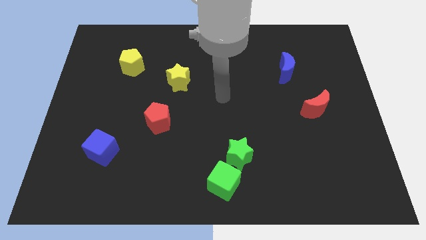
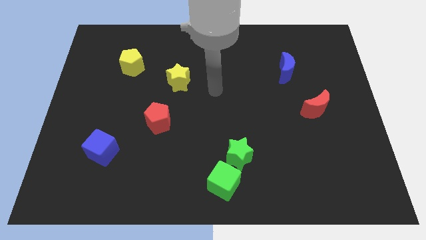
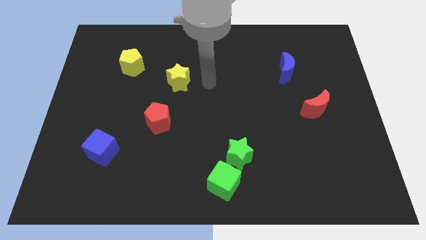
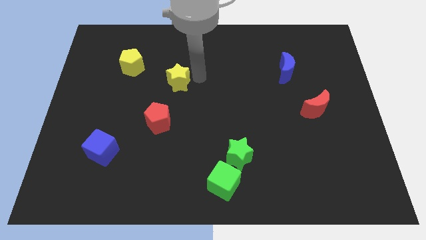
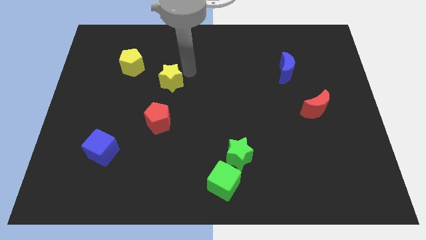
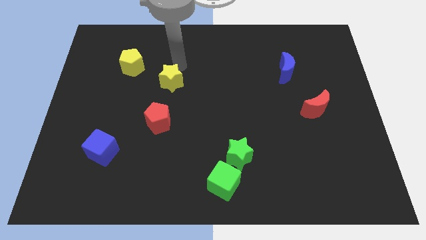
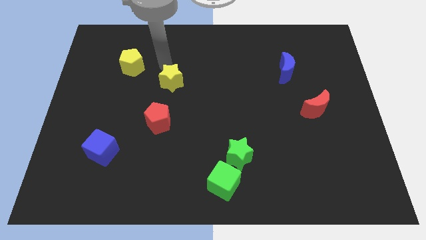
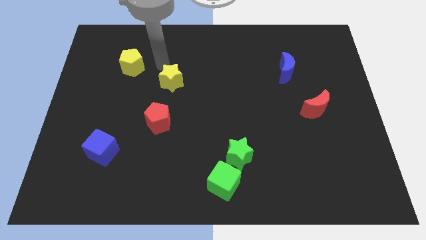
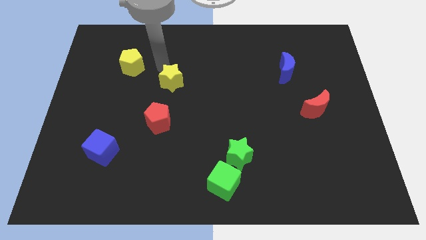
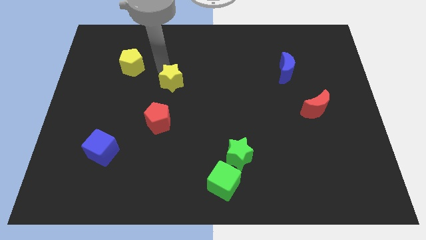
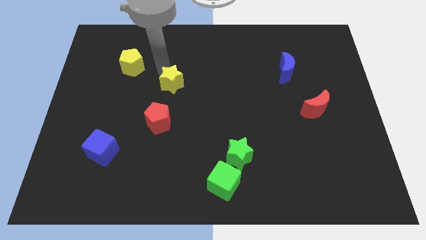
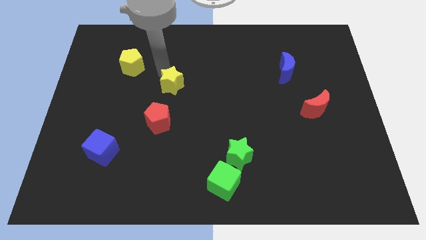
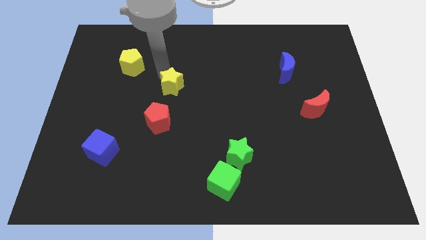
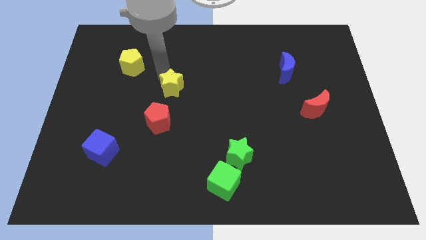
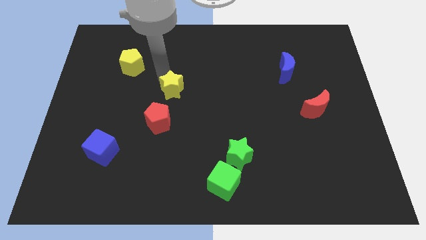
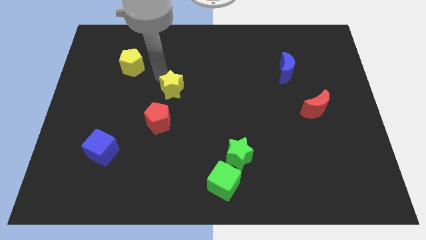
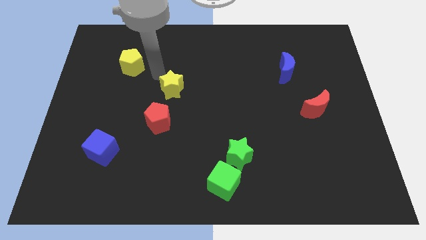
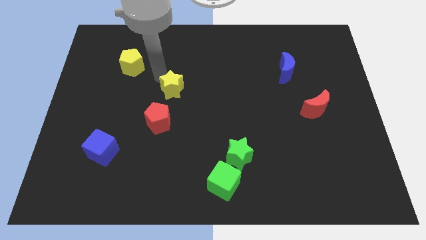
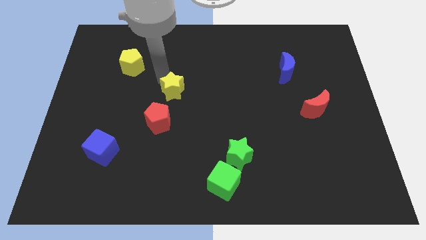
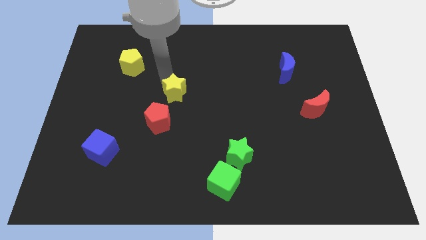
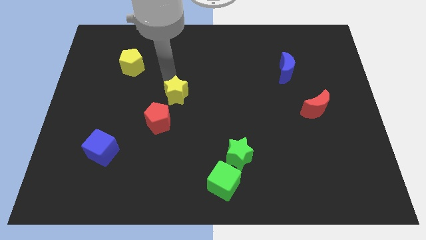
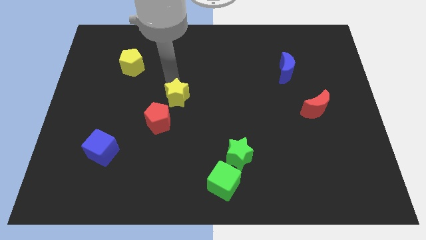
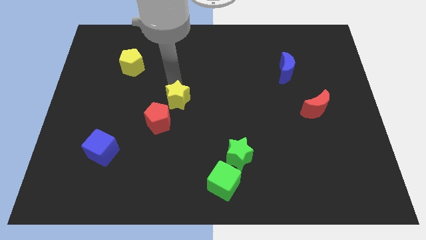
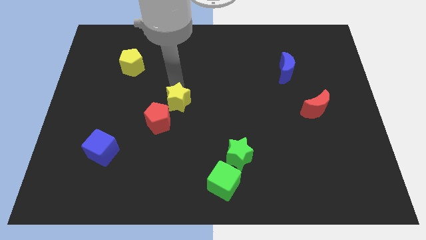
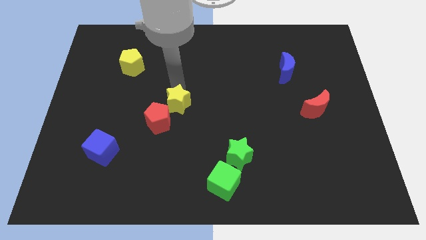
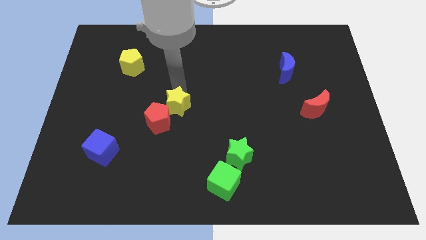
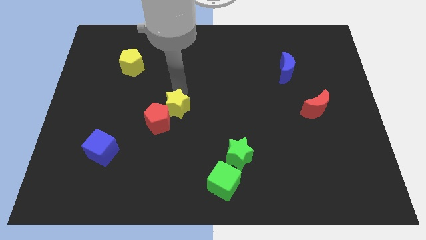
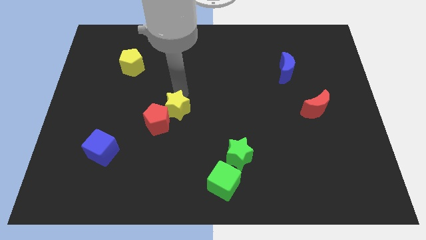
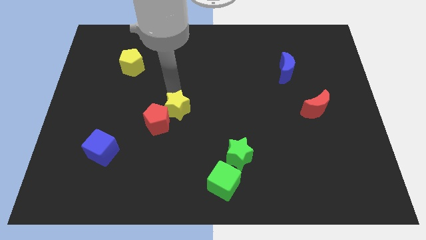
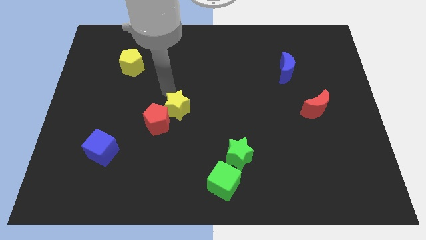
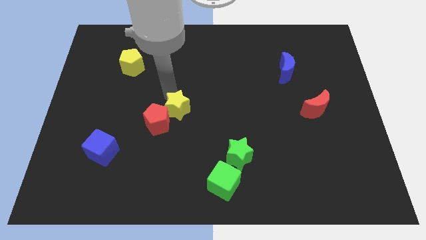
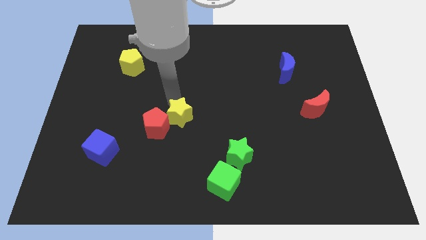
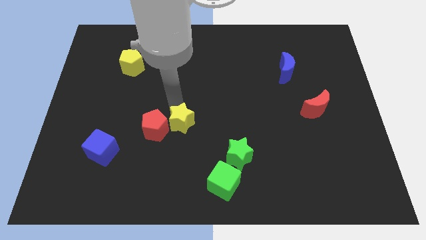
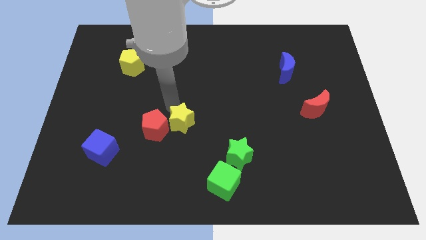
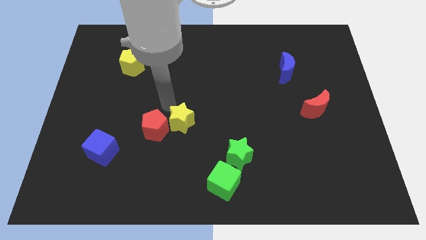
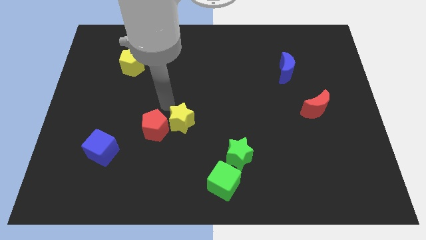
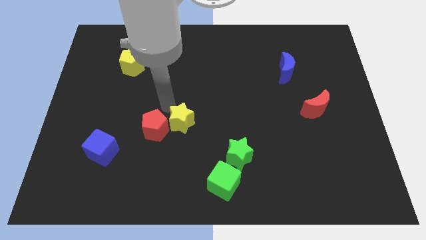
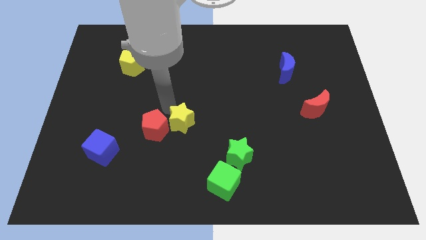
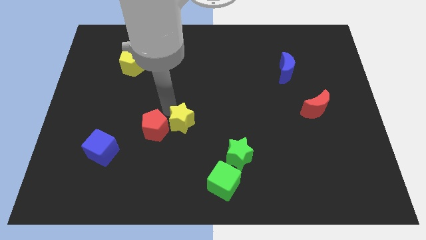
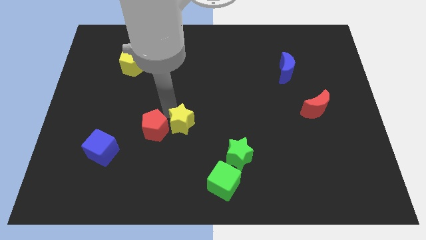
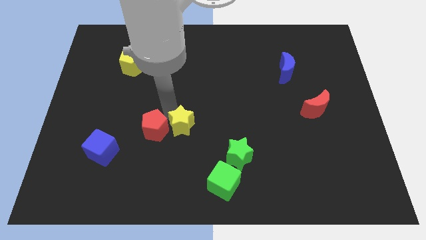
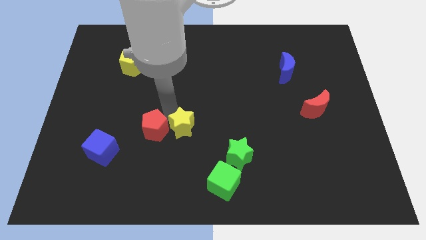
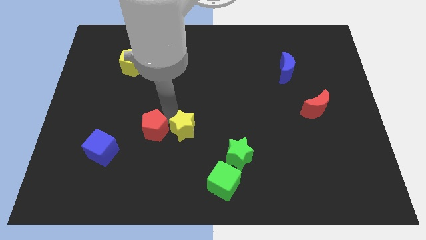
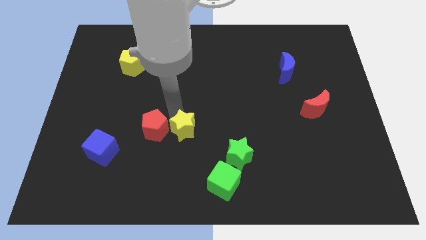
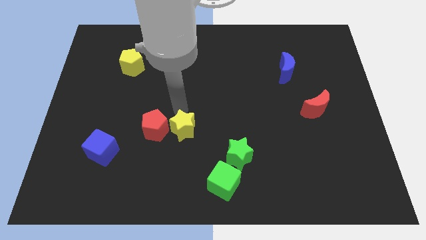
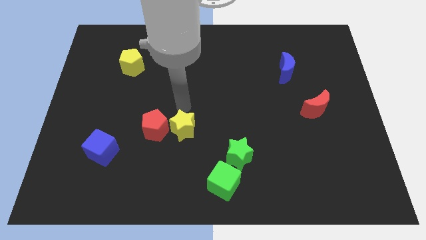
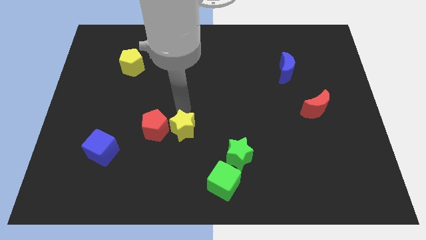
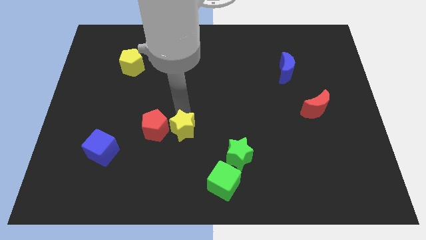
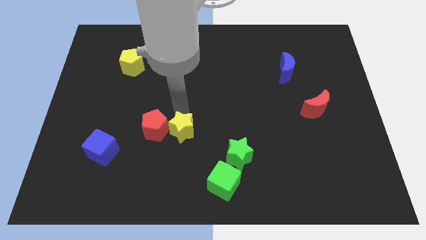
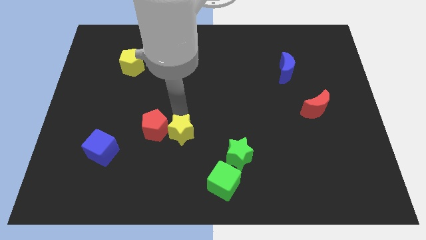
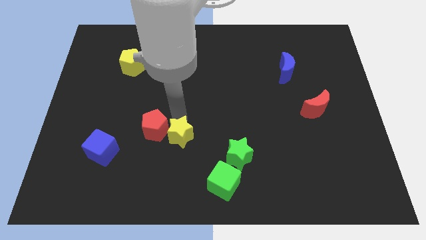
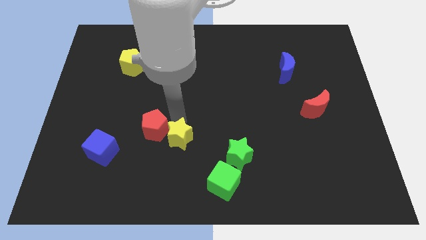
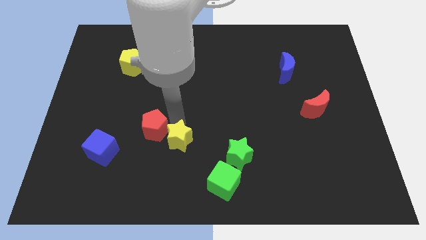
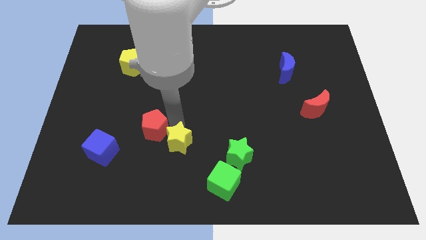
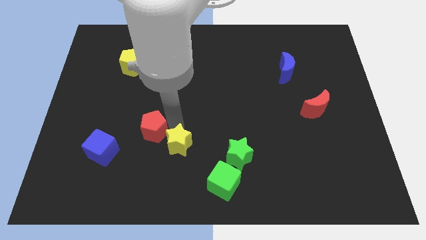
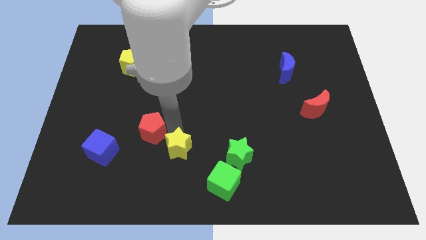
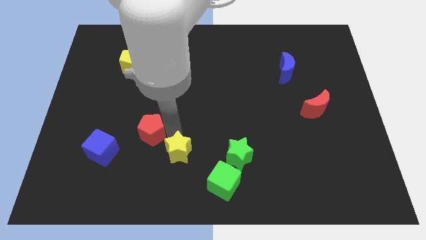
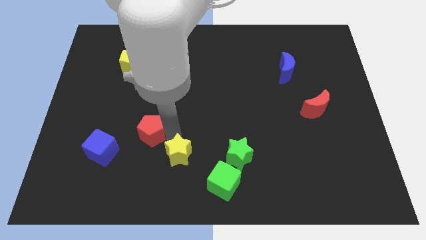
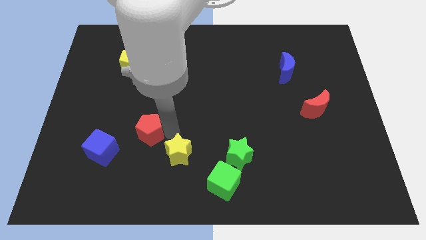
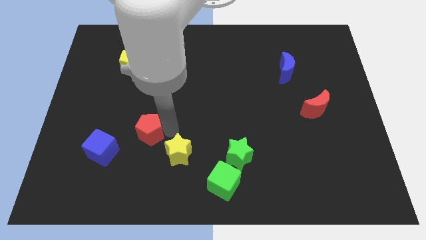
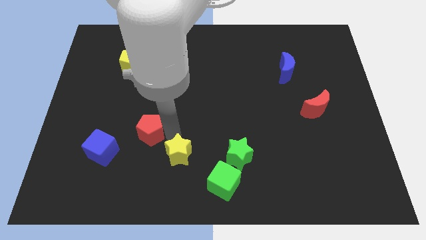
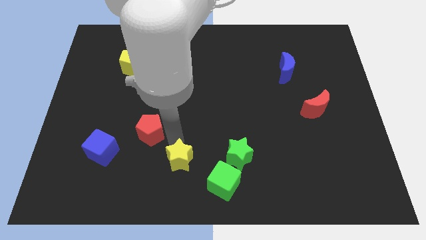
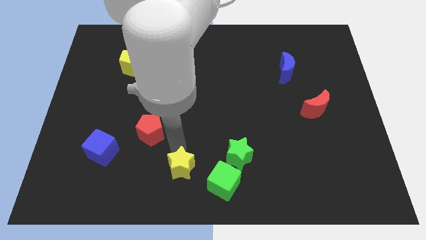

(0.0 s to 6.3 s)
move the yellow star to the bottom

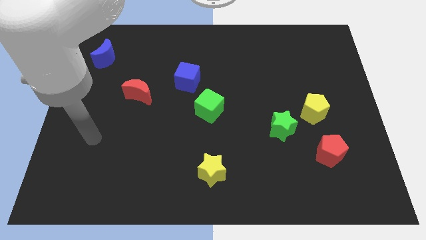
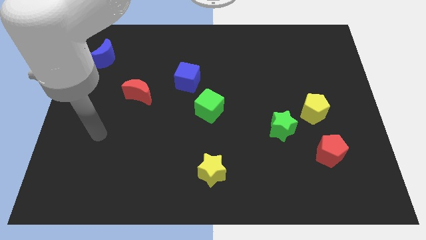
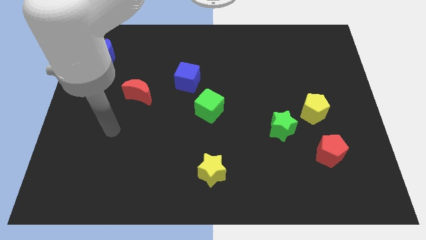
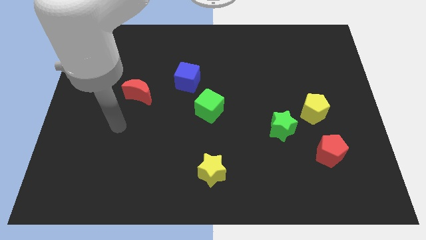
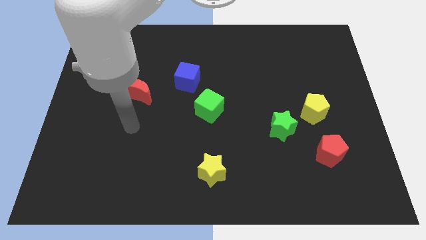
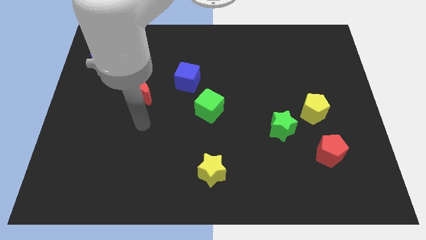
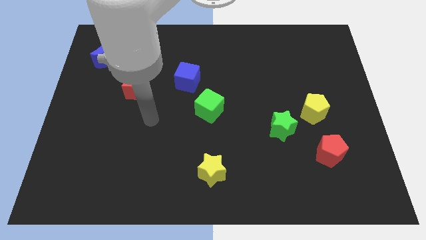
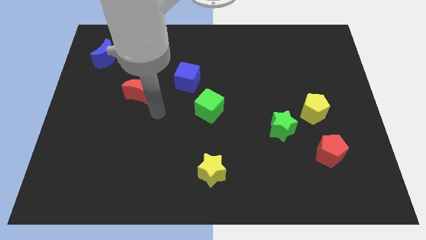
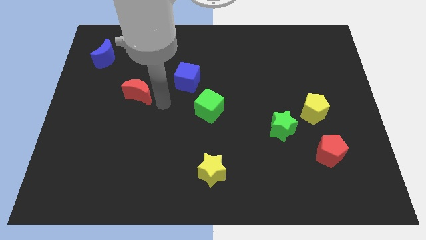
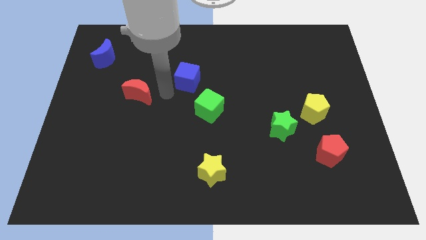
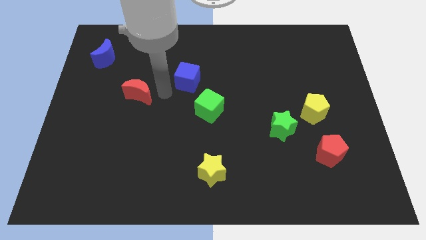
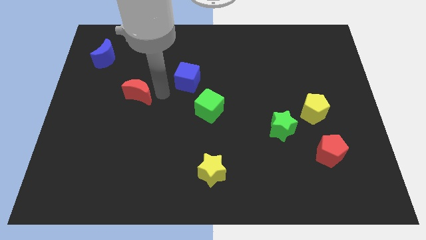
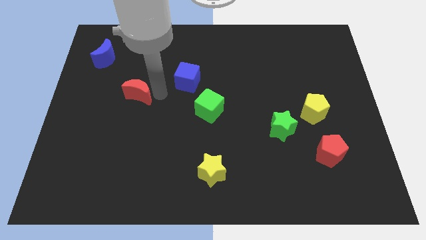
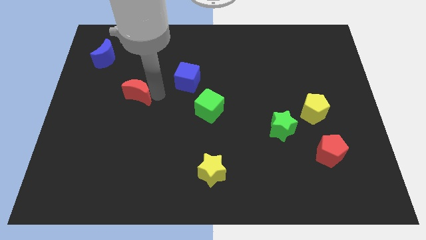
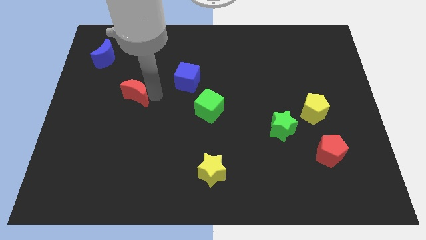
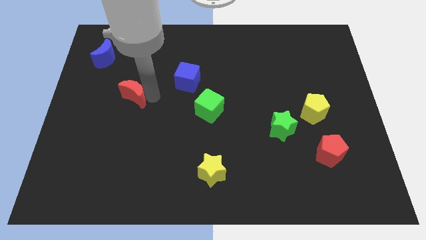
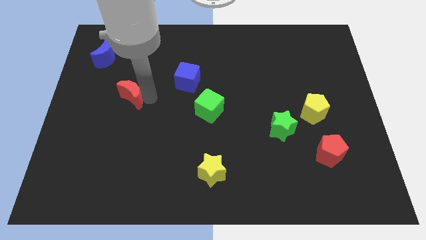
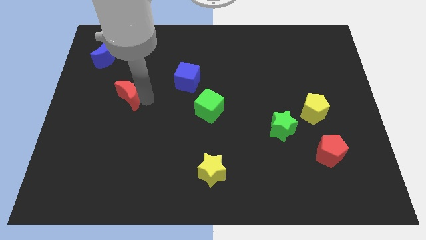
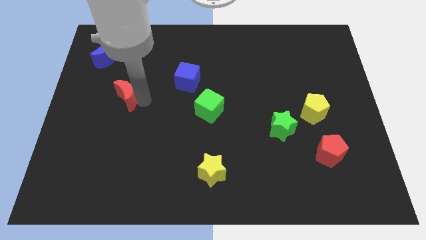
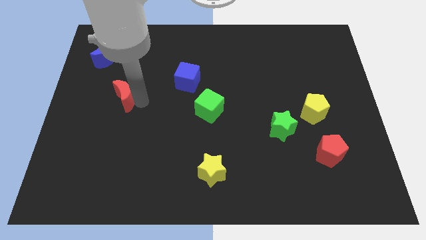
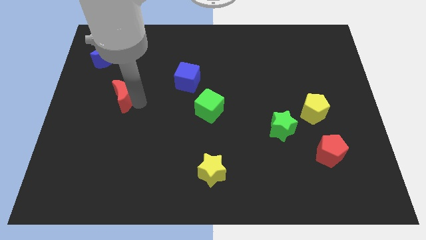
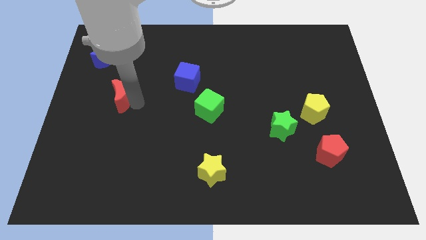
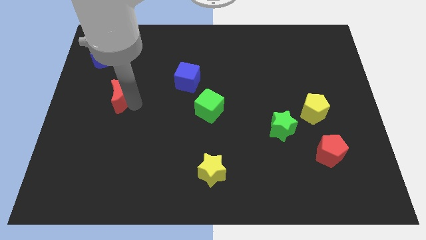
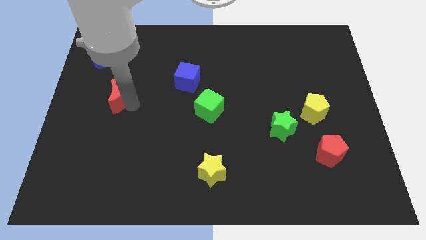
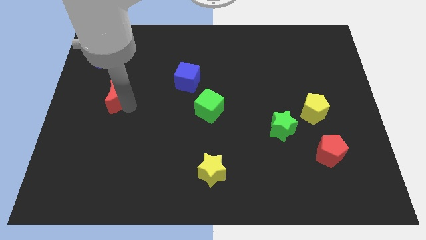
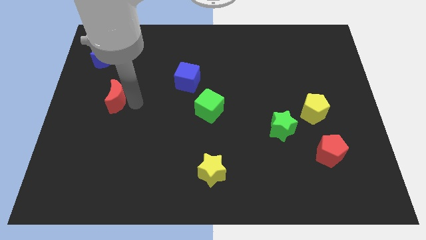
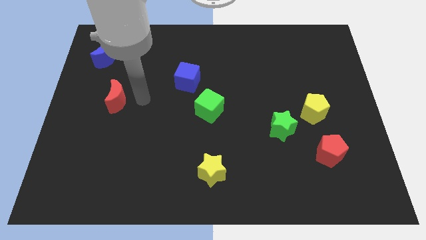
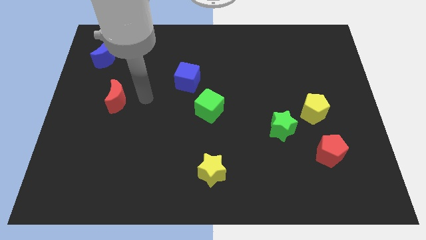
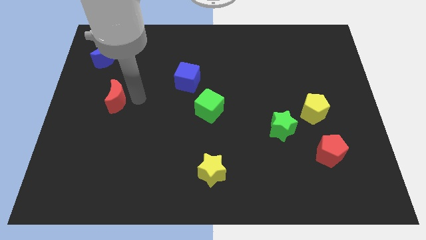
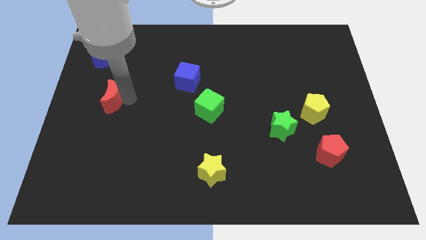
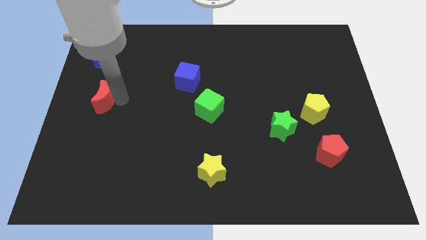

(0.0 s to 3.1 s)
put the red moon to the center left
